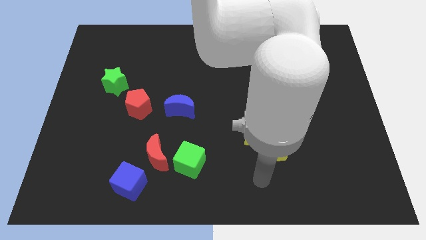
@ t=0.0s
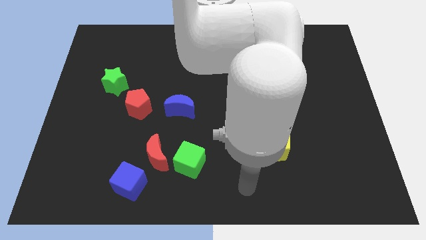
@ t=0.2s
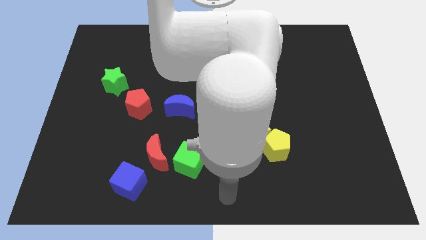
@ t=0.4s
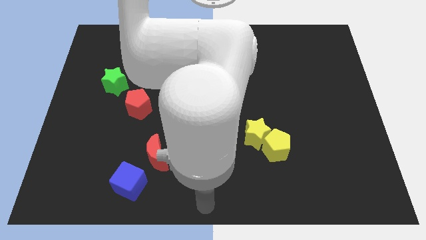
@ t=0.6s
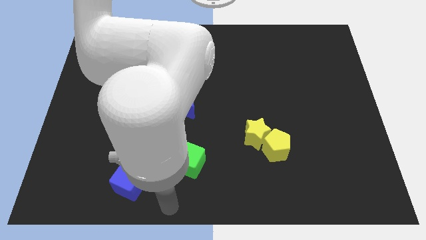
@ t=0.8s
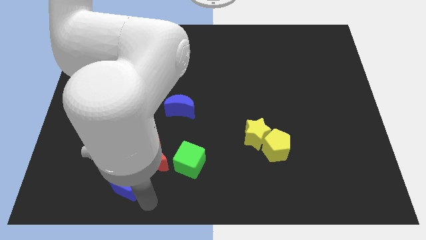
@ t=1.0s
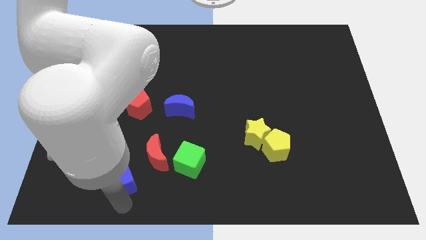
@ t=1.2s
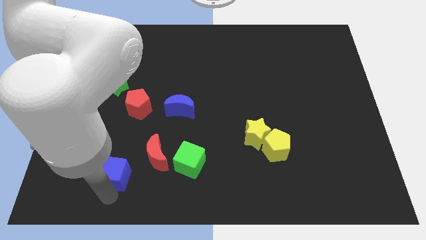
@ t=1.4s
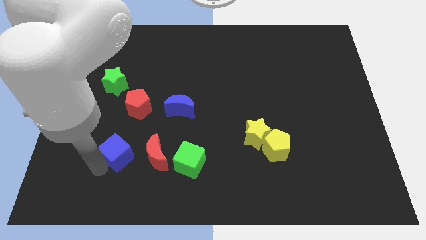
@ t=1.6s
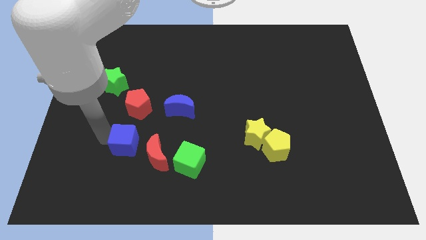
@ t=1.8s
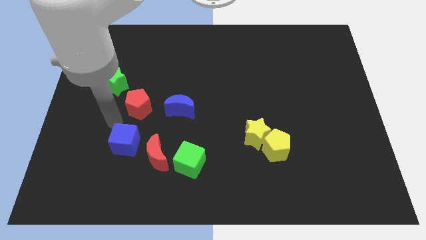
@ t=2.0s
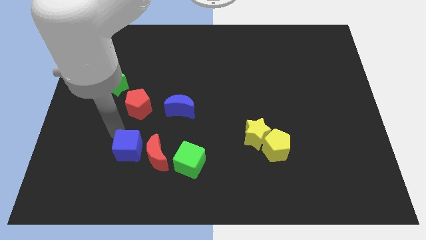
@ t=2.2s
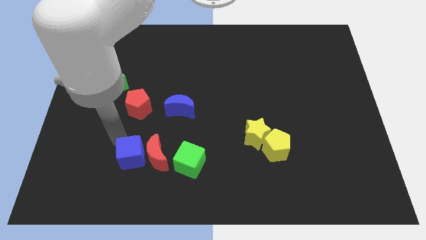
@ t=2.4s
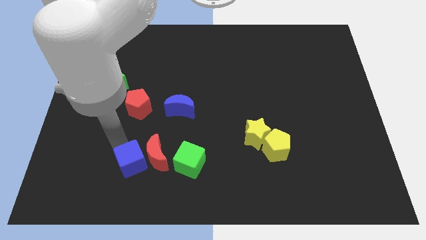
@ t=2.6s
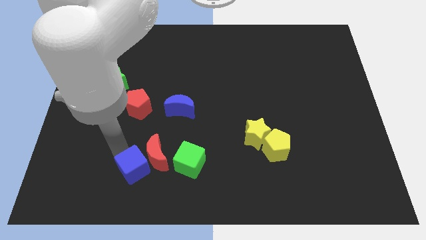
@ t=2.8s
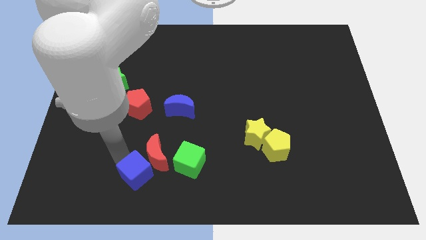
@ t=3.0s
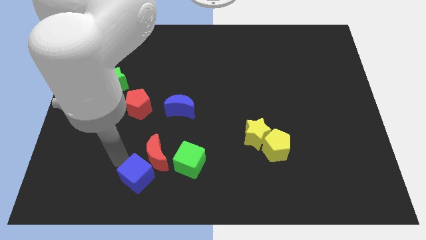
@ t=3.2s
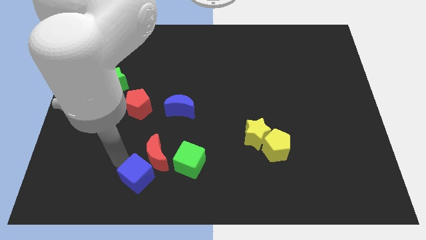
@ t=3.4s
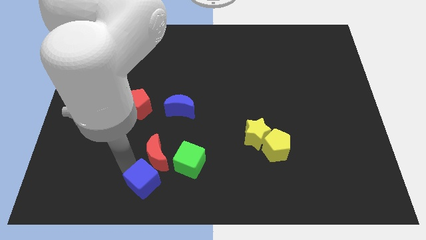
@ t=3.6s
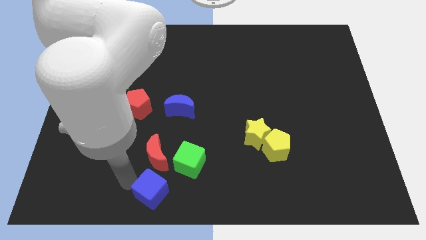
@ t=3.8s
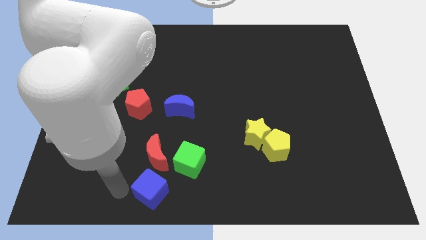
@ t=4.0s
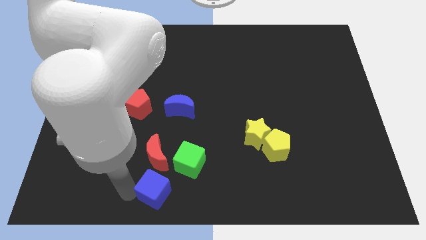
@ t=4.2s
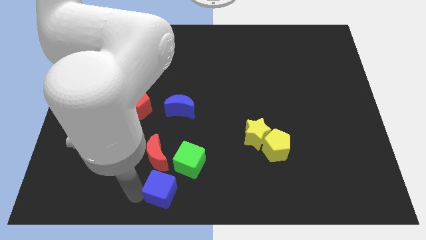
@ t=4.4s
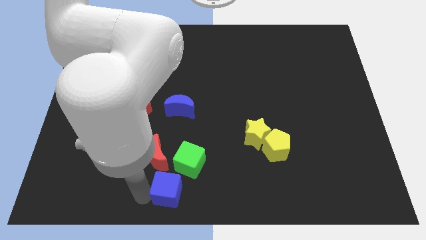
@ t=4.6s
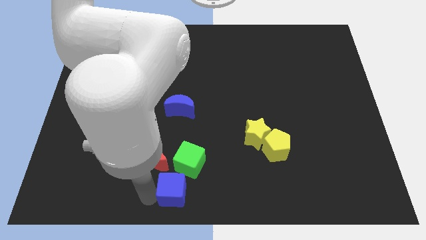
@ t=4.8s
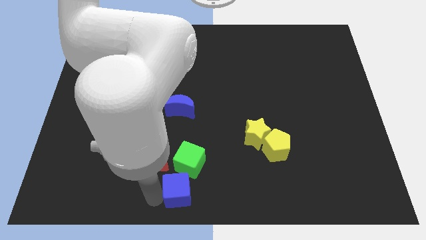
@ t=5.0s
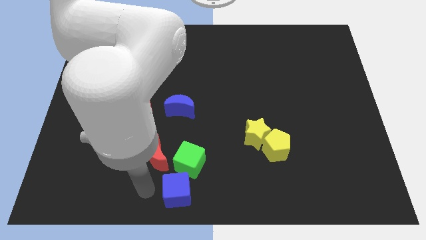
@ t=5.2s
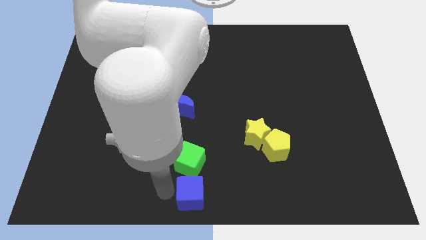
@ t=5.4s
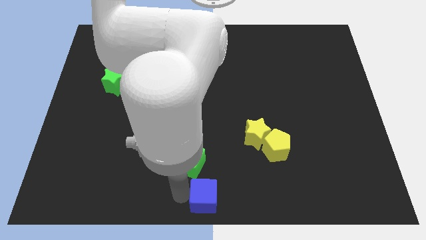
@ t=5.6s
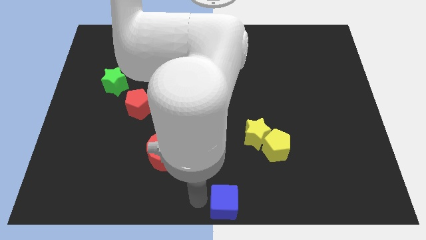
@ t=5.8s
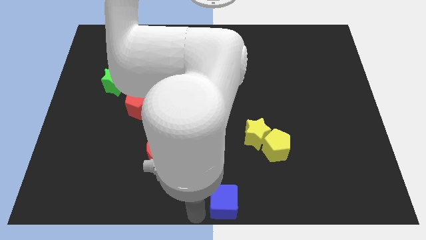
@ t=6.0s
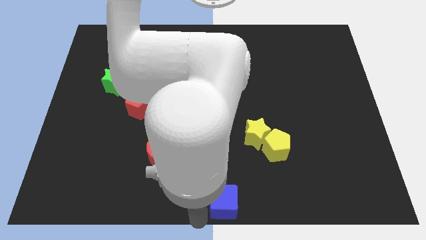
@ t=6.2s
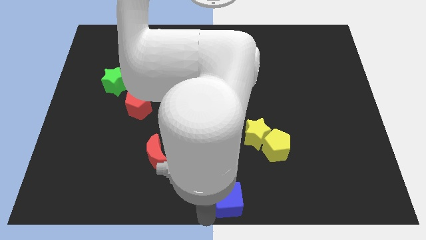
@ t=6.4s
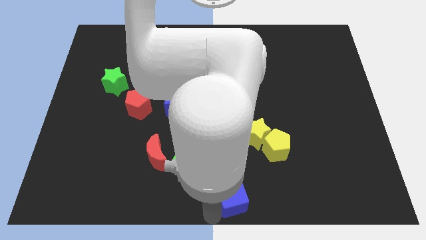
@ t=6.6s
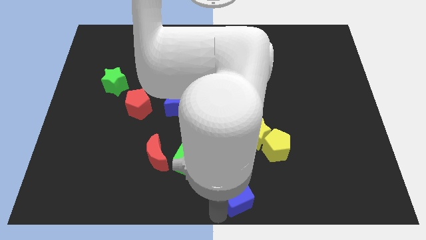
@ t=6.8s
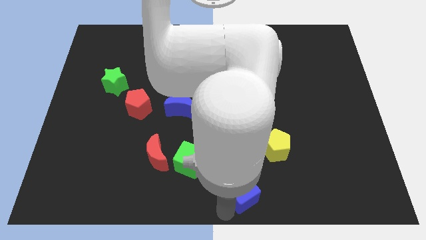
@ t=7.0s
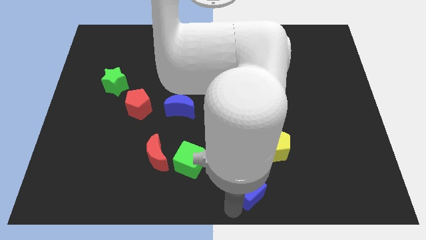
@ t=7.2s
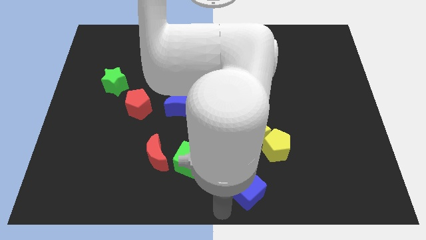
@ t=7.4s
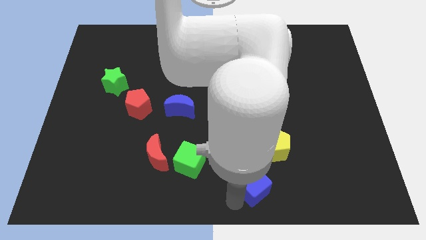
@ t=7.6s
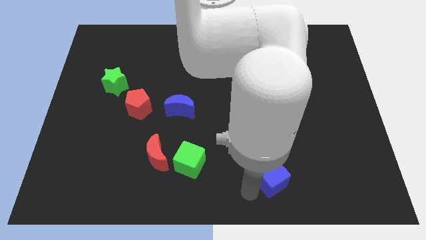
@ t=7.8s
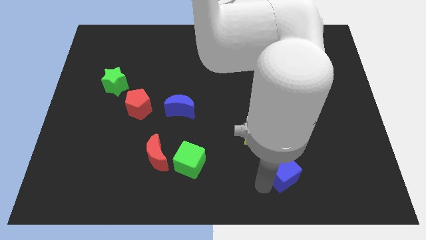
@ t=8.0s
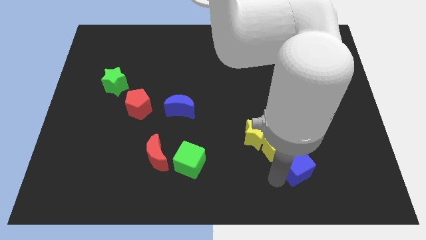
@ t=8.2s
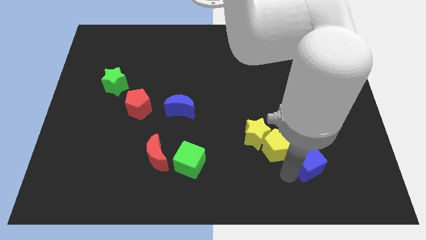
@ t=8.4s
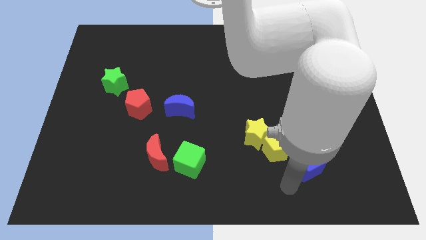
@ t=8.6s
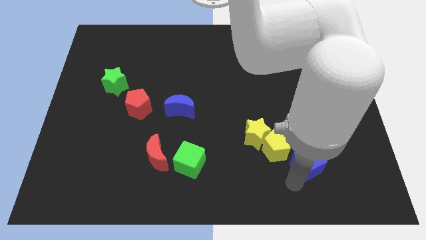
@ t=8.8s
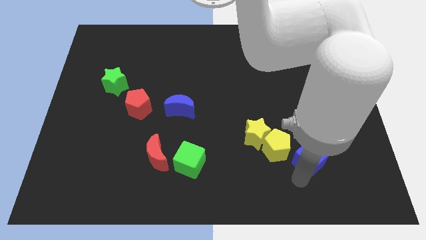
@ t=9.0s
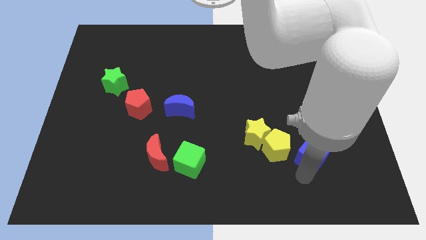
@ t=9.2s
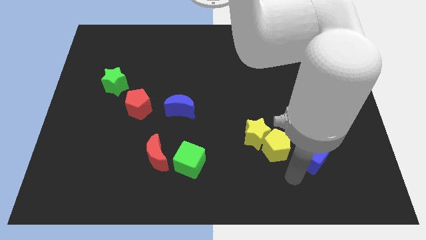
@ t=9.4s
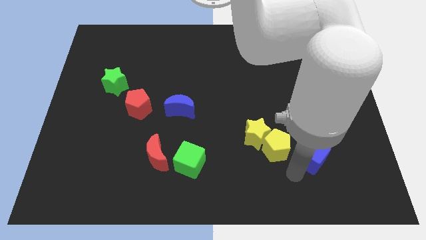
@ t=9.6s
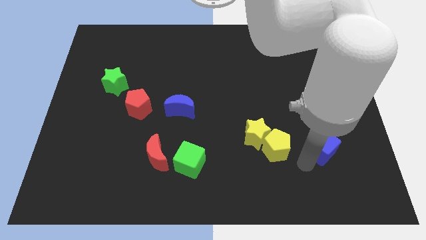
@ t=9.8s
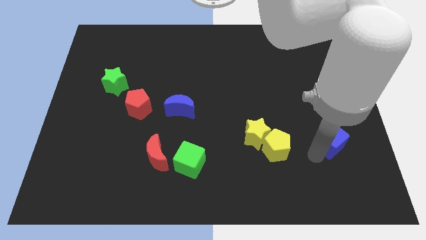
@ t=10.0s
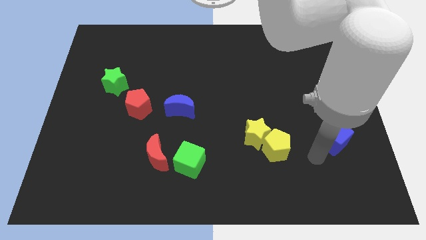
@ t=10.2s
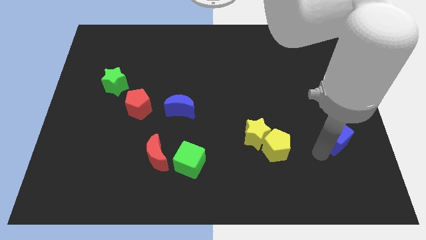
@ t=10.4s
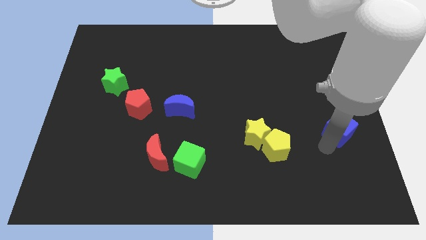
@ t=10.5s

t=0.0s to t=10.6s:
put the blue cube to the right side

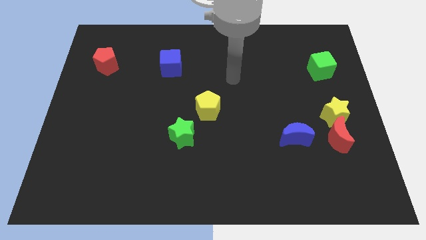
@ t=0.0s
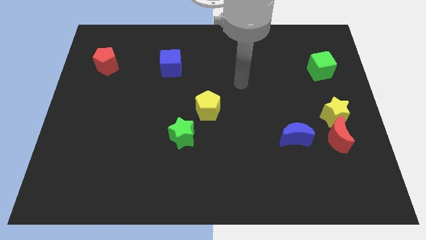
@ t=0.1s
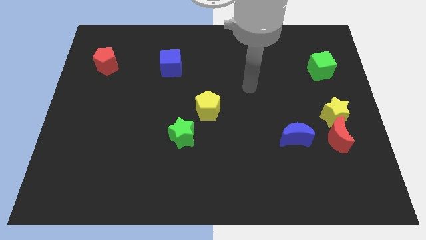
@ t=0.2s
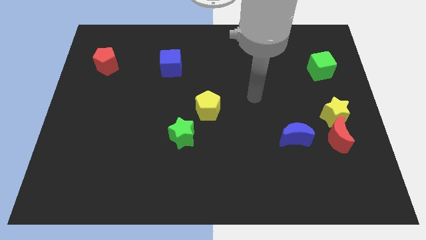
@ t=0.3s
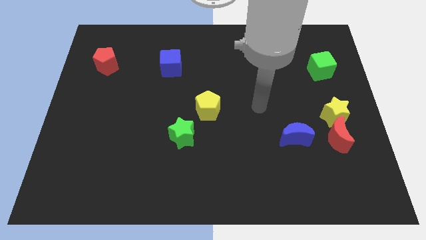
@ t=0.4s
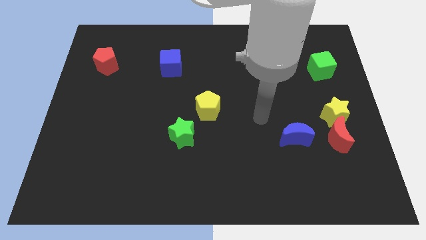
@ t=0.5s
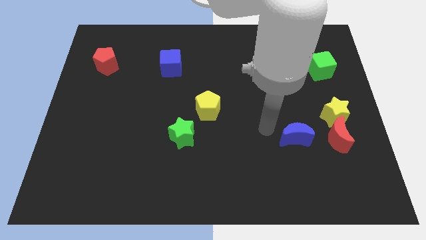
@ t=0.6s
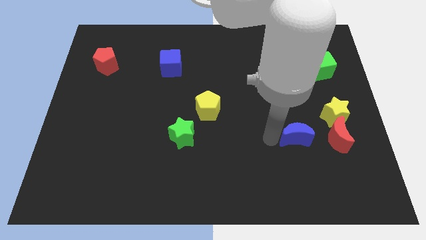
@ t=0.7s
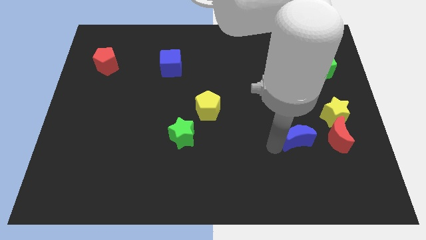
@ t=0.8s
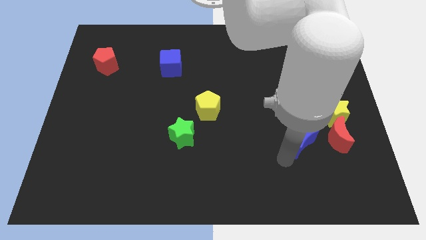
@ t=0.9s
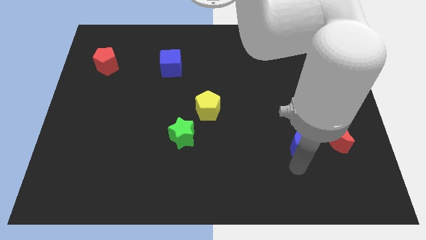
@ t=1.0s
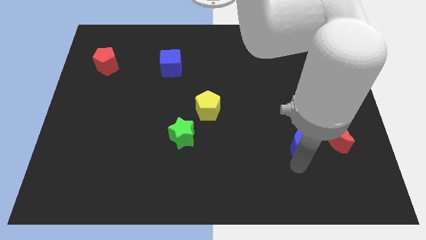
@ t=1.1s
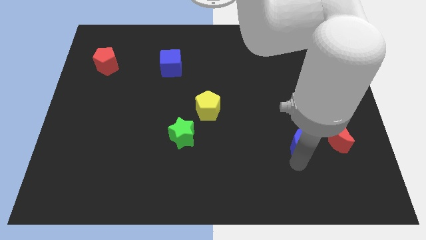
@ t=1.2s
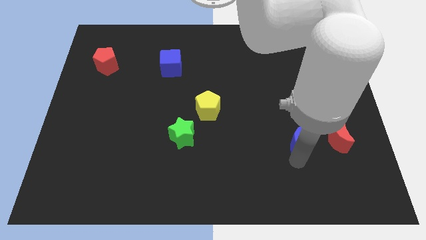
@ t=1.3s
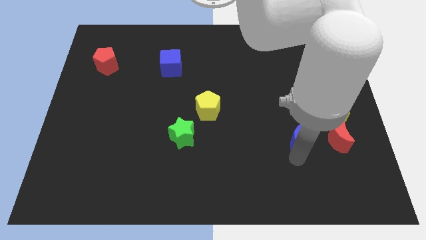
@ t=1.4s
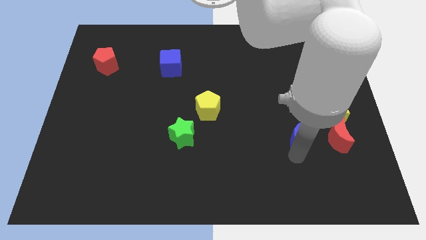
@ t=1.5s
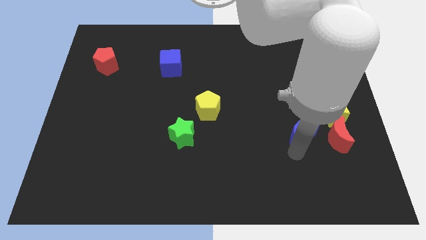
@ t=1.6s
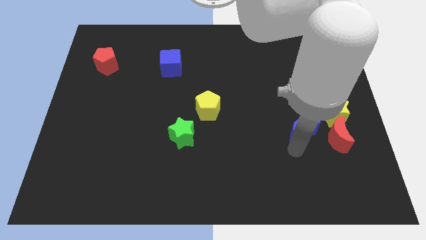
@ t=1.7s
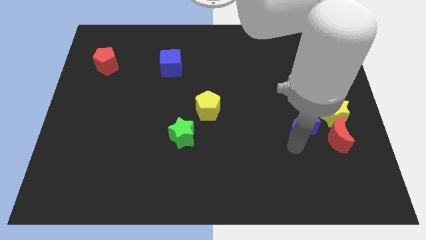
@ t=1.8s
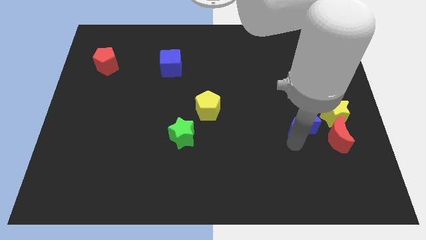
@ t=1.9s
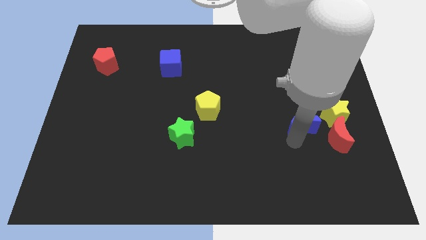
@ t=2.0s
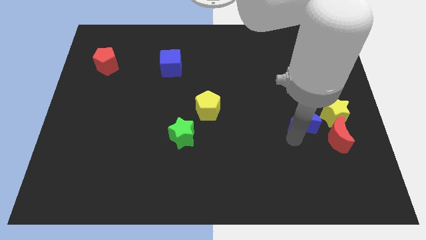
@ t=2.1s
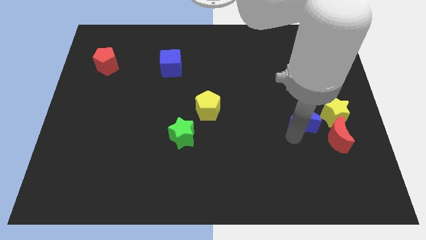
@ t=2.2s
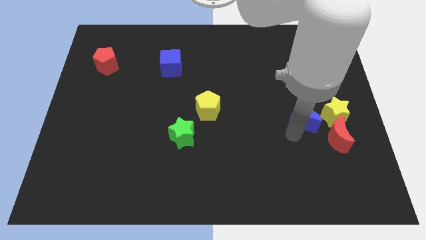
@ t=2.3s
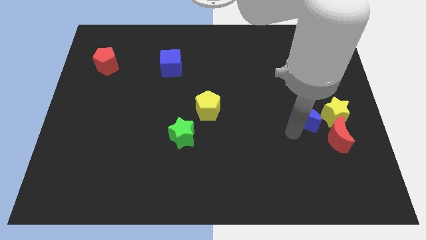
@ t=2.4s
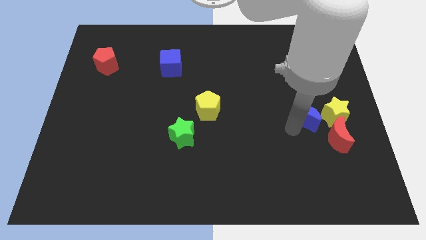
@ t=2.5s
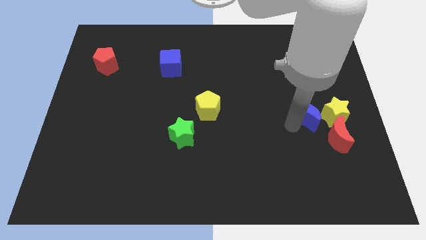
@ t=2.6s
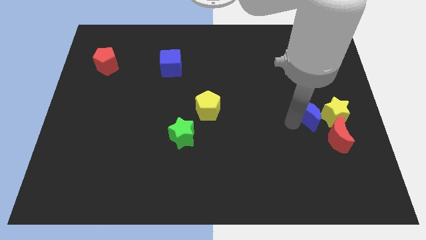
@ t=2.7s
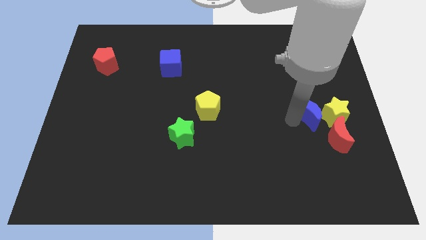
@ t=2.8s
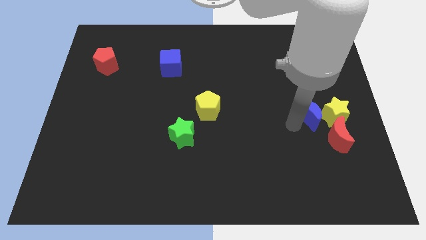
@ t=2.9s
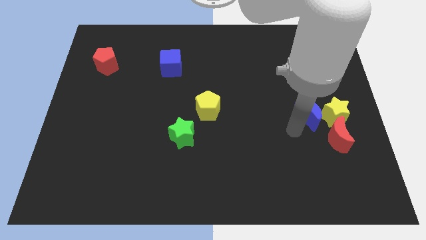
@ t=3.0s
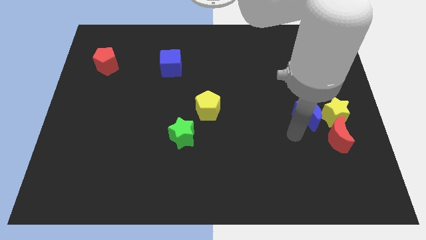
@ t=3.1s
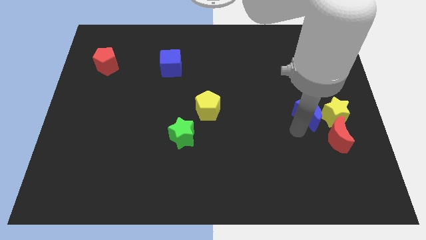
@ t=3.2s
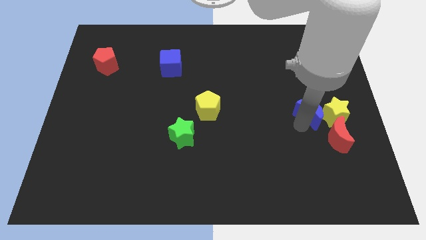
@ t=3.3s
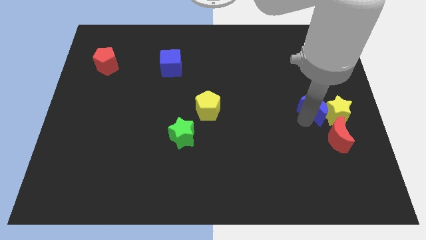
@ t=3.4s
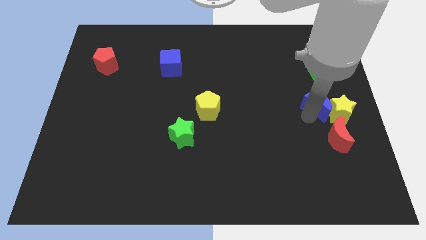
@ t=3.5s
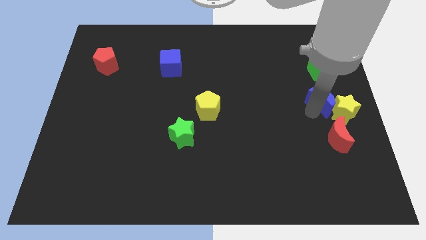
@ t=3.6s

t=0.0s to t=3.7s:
put the blue moon to the right side of the board
